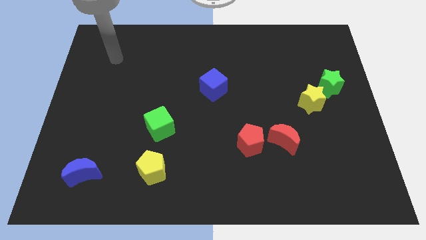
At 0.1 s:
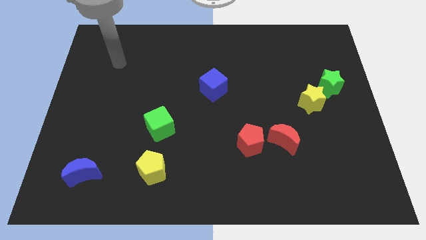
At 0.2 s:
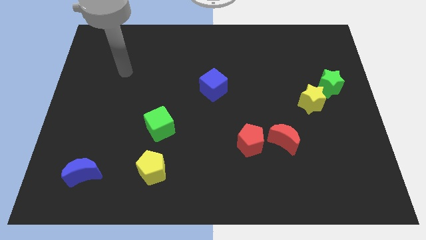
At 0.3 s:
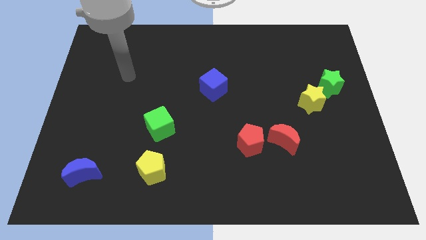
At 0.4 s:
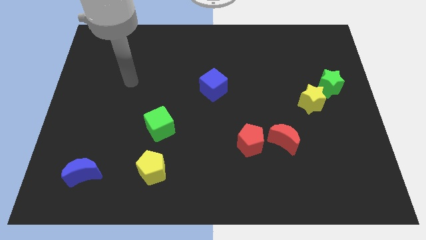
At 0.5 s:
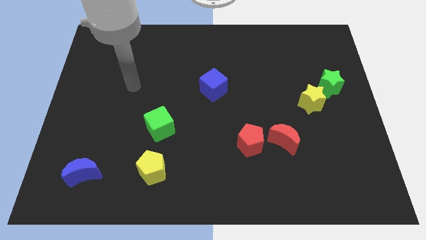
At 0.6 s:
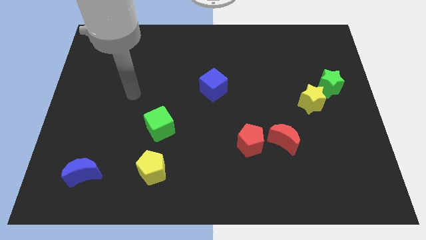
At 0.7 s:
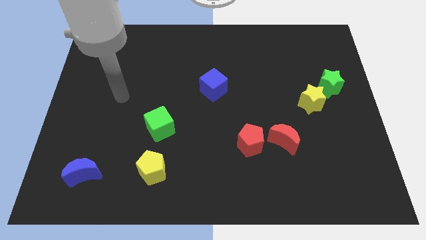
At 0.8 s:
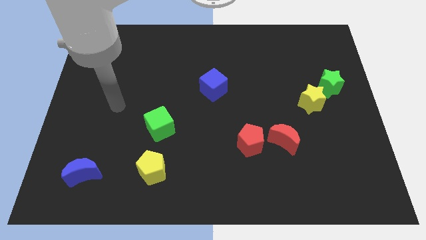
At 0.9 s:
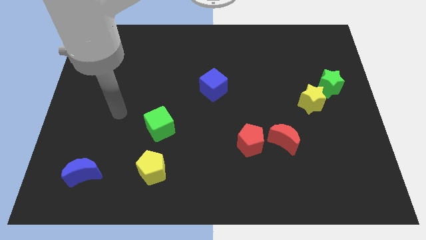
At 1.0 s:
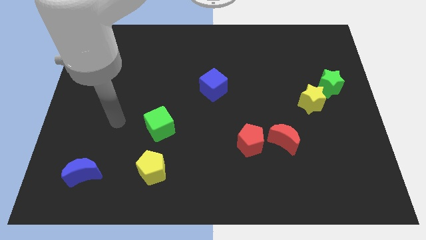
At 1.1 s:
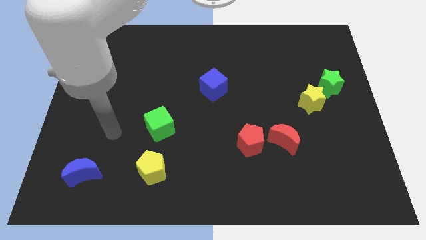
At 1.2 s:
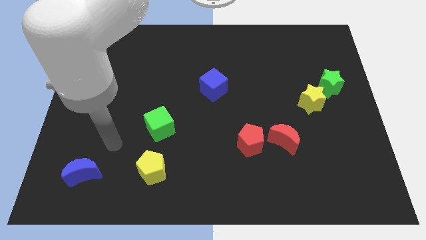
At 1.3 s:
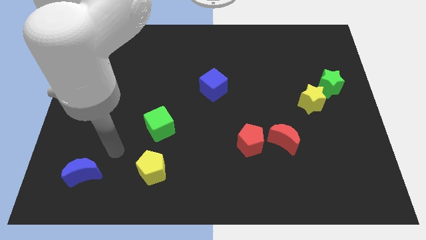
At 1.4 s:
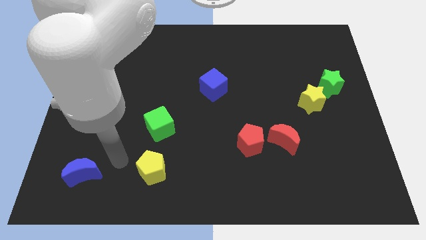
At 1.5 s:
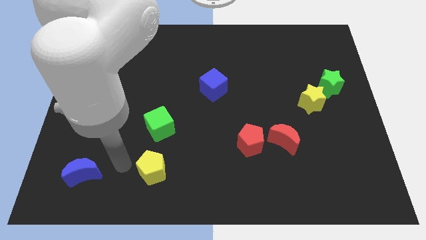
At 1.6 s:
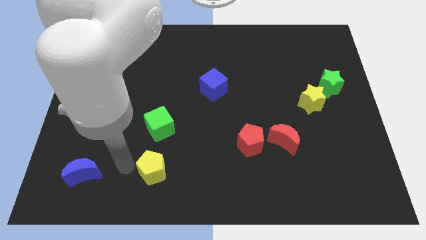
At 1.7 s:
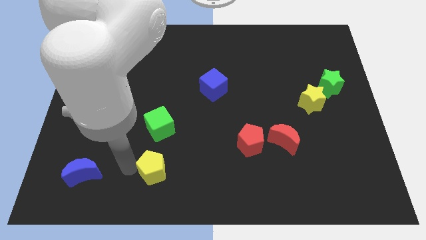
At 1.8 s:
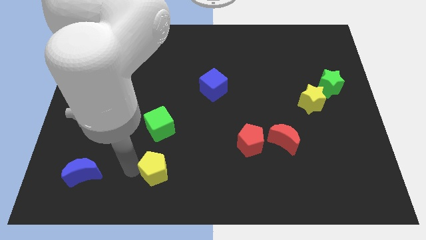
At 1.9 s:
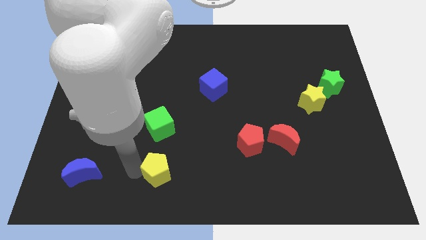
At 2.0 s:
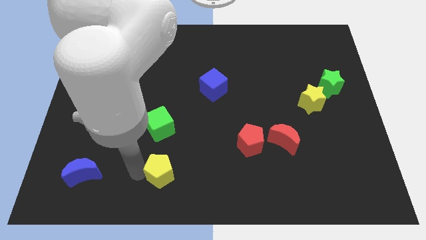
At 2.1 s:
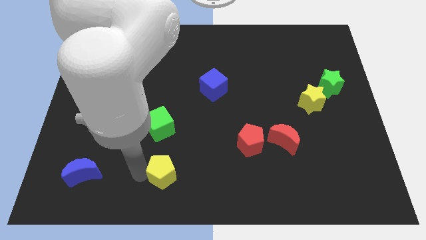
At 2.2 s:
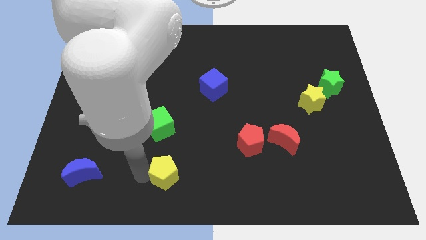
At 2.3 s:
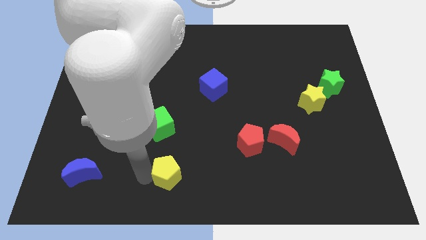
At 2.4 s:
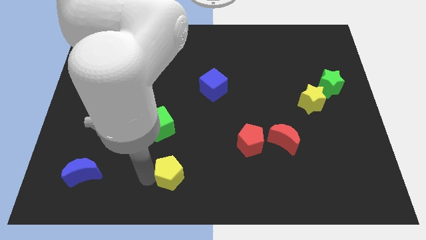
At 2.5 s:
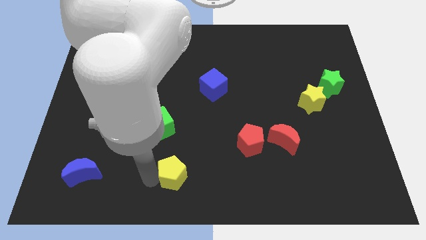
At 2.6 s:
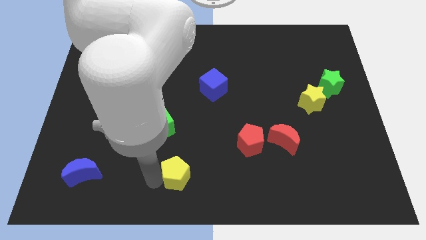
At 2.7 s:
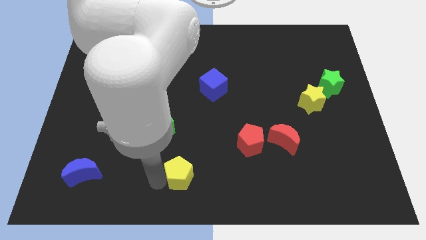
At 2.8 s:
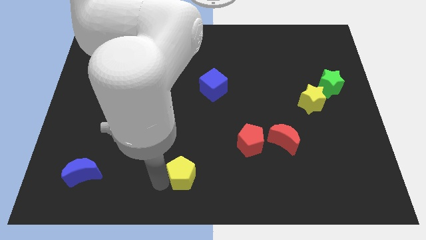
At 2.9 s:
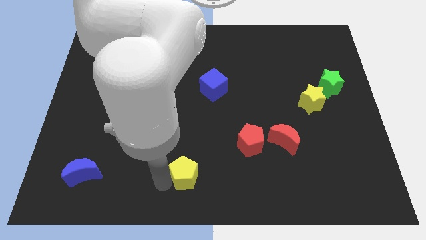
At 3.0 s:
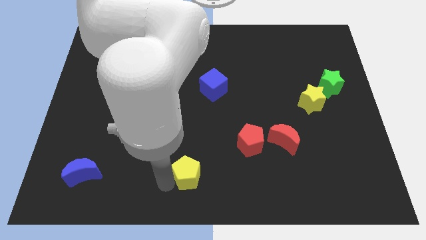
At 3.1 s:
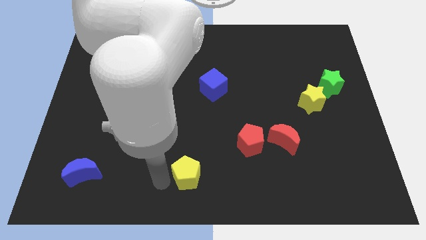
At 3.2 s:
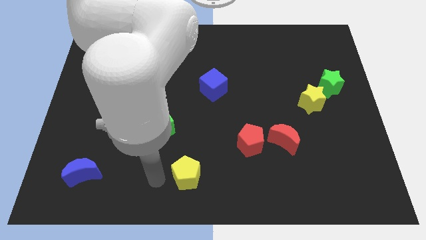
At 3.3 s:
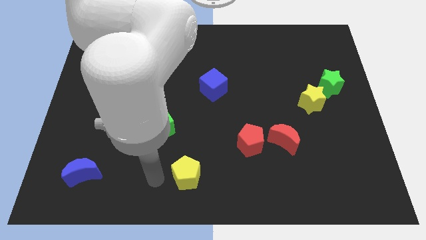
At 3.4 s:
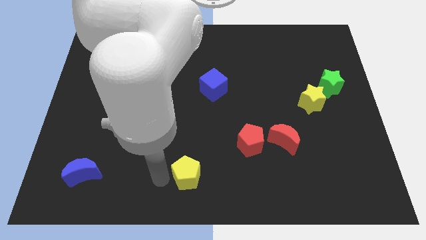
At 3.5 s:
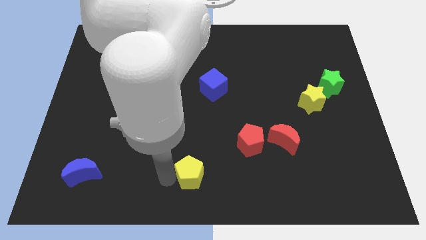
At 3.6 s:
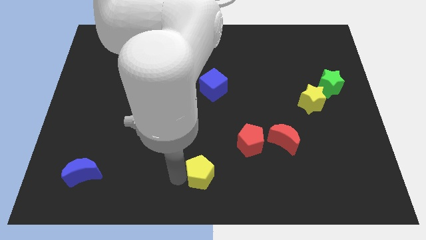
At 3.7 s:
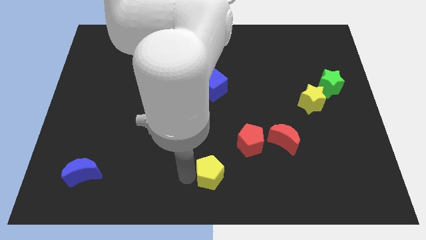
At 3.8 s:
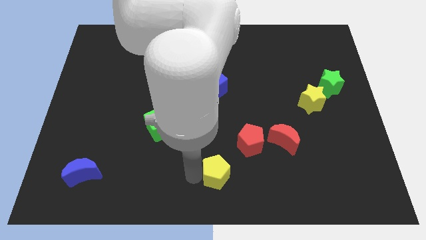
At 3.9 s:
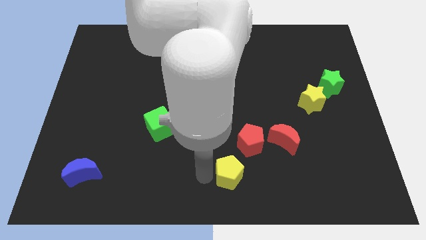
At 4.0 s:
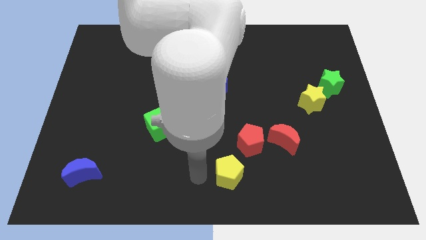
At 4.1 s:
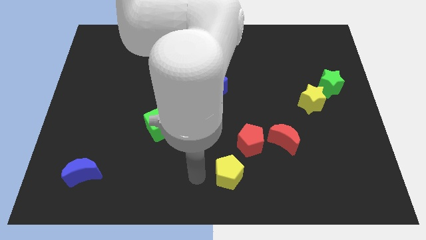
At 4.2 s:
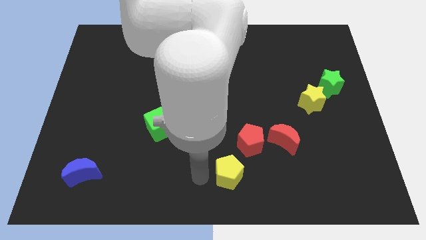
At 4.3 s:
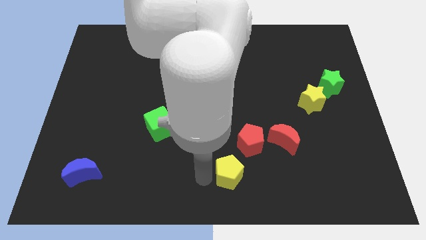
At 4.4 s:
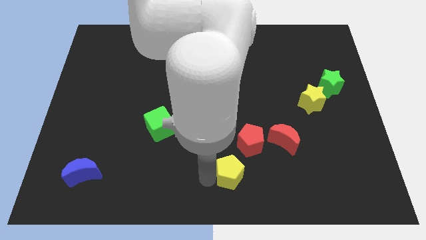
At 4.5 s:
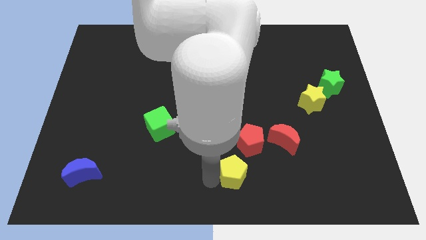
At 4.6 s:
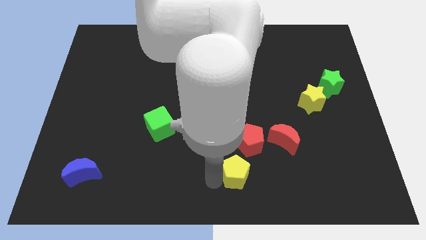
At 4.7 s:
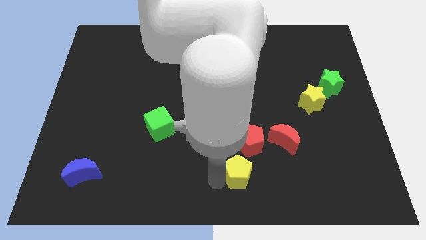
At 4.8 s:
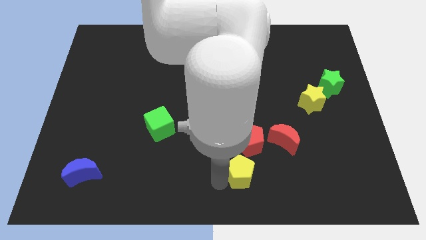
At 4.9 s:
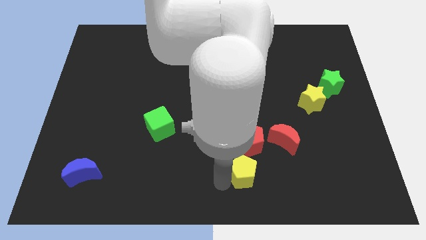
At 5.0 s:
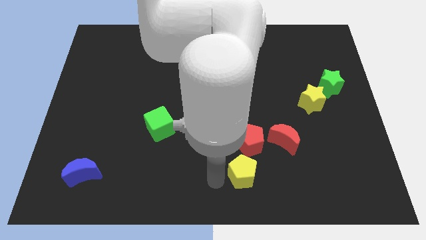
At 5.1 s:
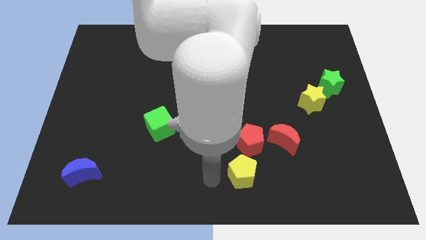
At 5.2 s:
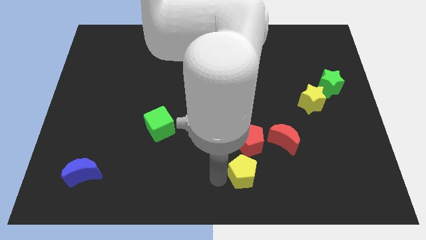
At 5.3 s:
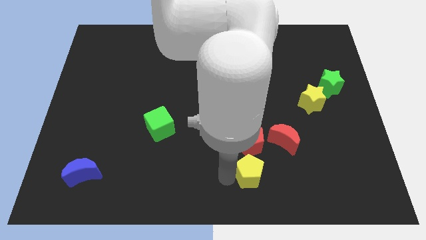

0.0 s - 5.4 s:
move the yellow pentagon right

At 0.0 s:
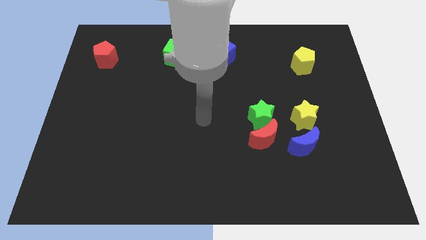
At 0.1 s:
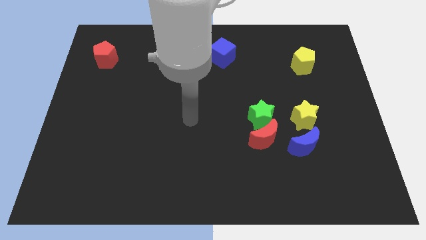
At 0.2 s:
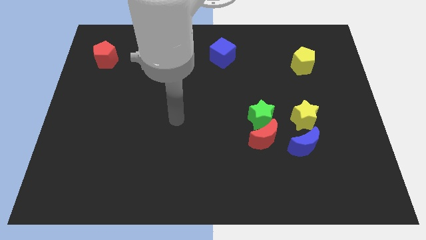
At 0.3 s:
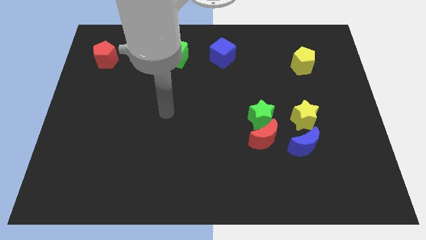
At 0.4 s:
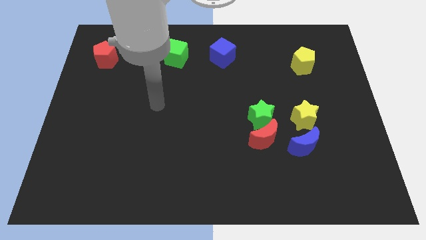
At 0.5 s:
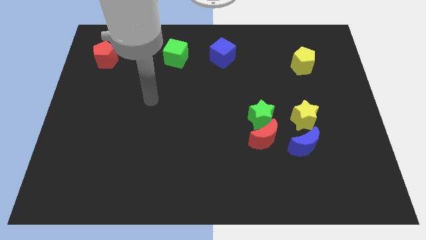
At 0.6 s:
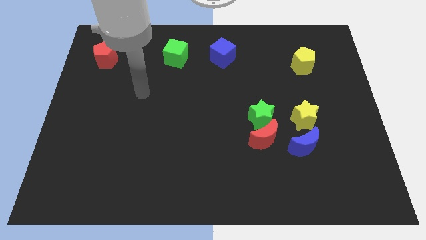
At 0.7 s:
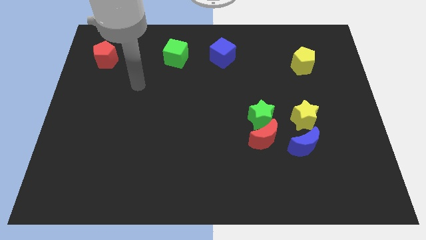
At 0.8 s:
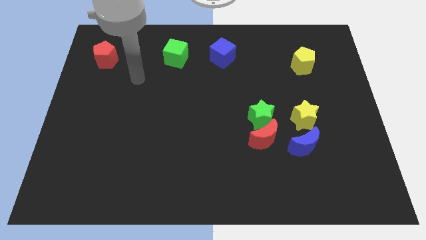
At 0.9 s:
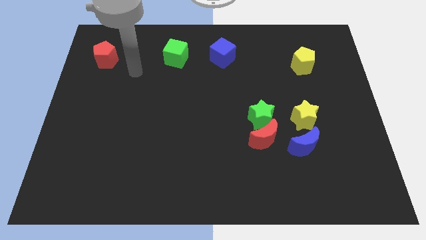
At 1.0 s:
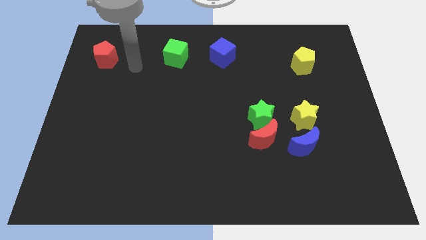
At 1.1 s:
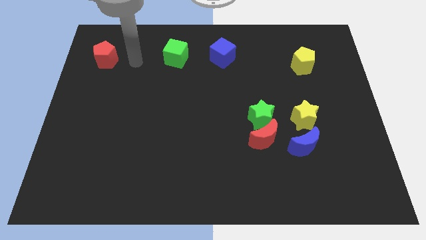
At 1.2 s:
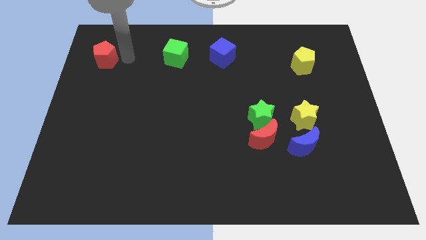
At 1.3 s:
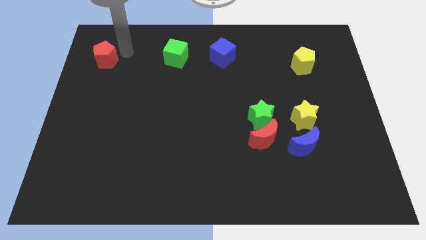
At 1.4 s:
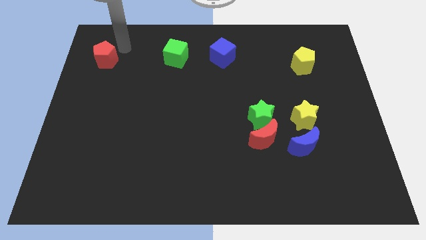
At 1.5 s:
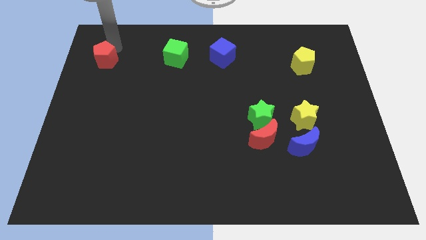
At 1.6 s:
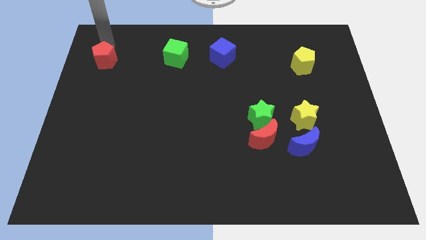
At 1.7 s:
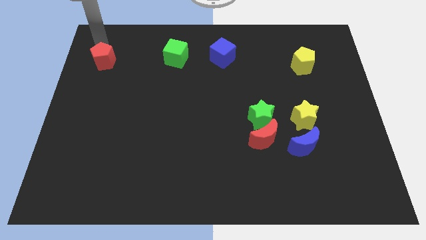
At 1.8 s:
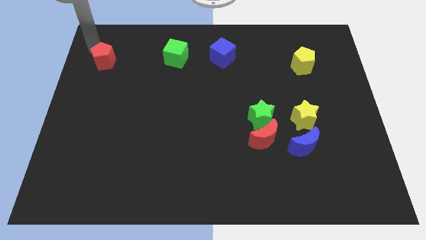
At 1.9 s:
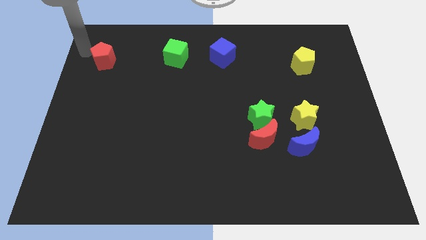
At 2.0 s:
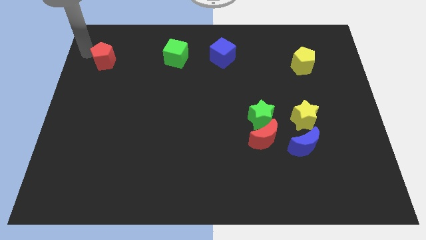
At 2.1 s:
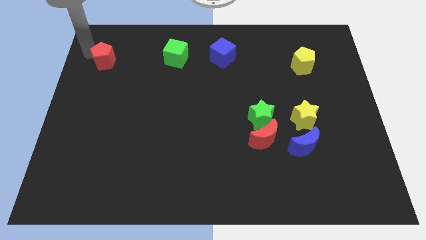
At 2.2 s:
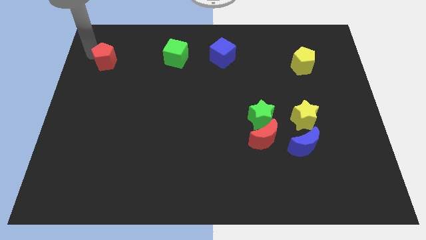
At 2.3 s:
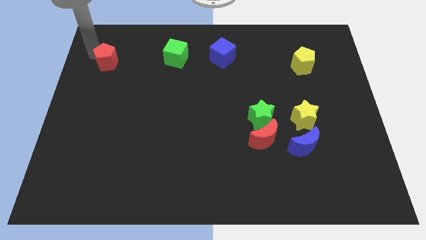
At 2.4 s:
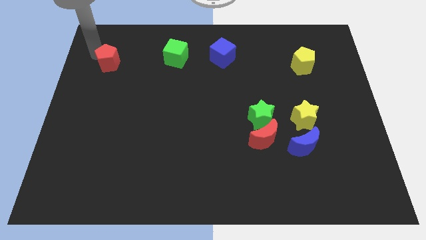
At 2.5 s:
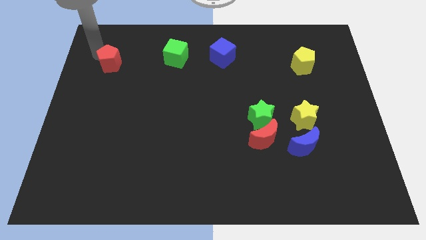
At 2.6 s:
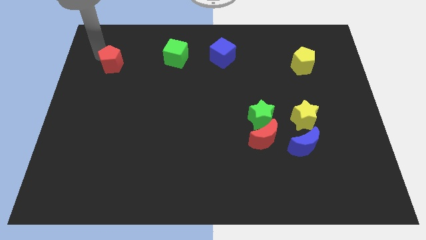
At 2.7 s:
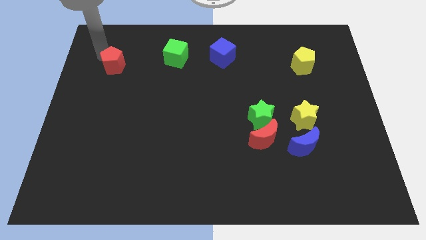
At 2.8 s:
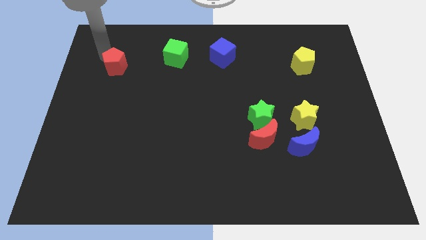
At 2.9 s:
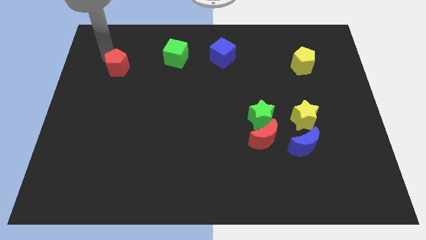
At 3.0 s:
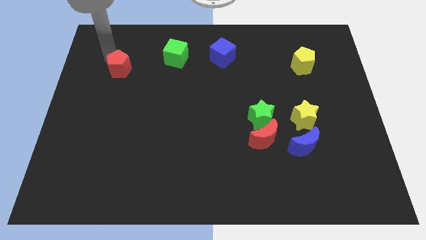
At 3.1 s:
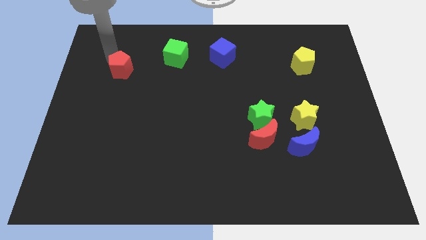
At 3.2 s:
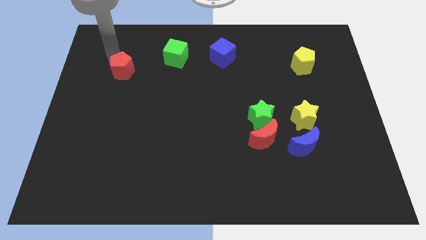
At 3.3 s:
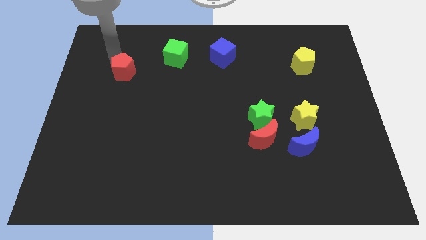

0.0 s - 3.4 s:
slightly move the red pentagon down and then right
